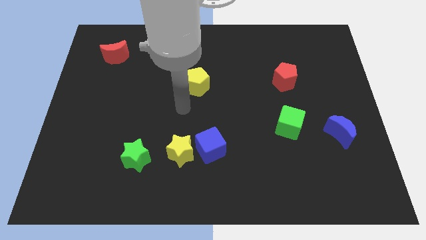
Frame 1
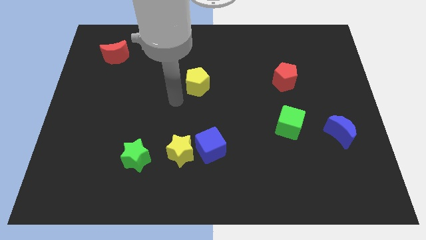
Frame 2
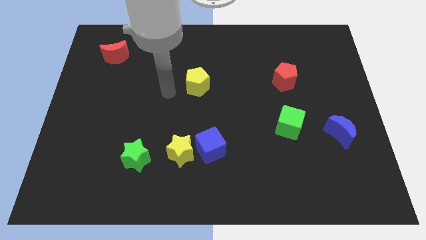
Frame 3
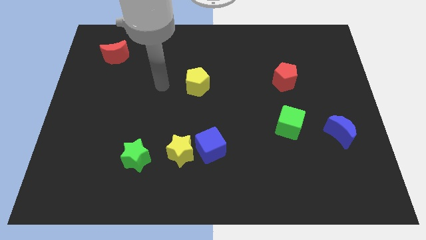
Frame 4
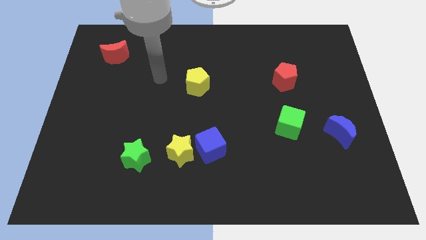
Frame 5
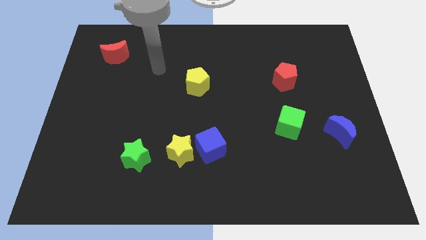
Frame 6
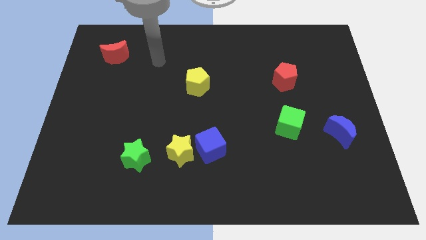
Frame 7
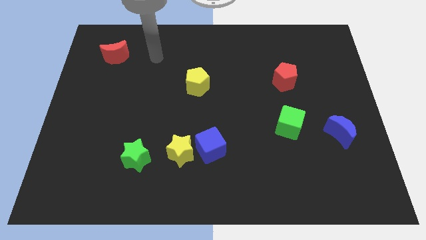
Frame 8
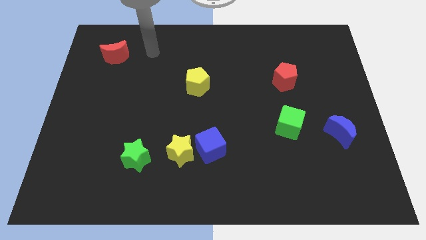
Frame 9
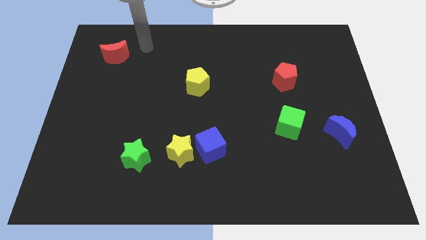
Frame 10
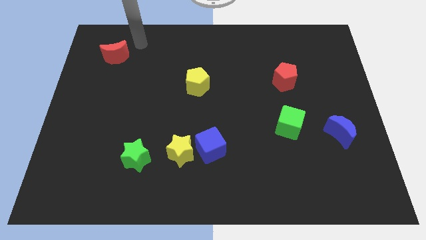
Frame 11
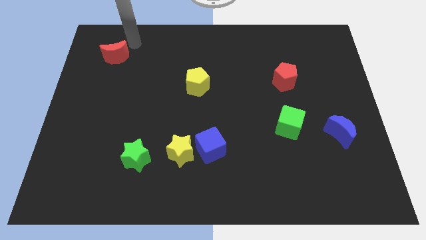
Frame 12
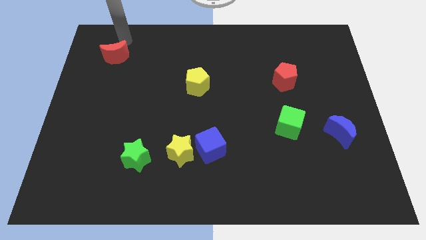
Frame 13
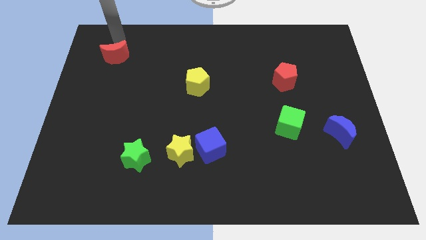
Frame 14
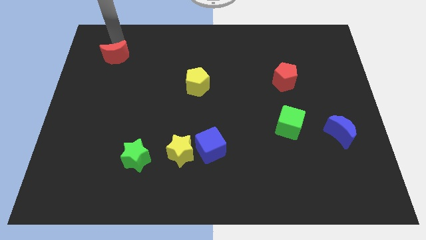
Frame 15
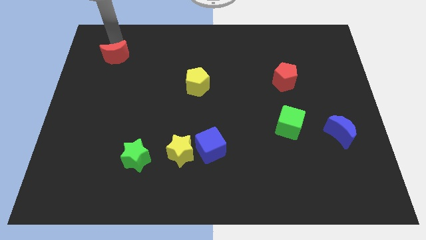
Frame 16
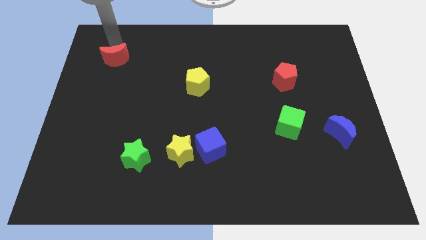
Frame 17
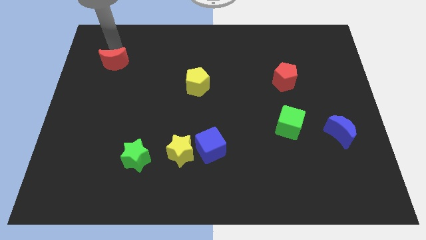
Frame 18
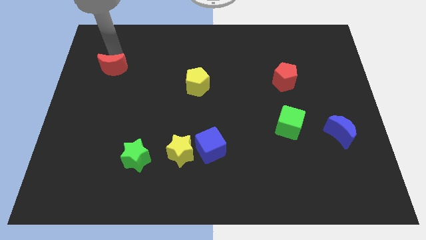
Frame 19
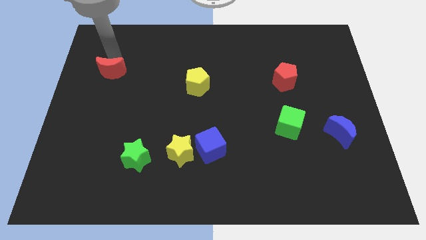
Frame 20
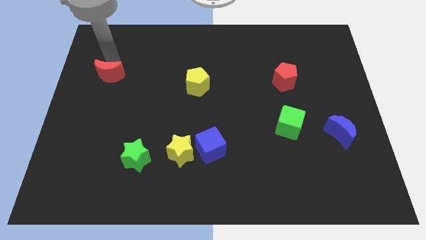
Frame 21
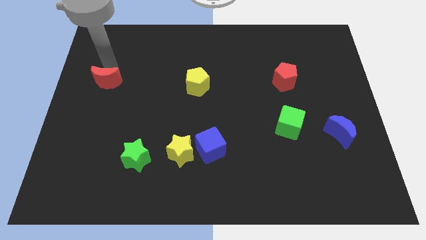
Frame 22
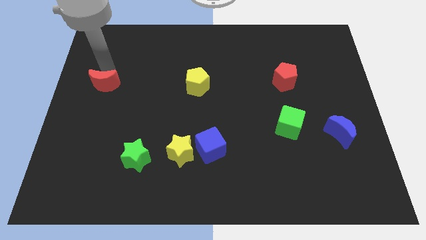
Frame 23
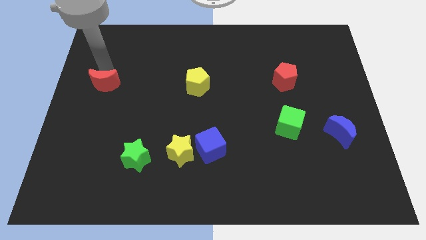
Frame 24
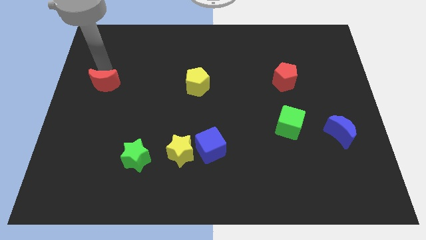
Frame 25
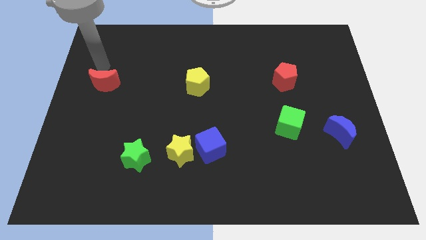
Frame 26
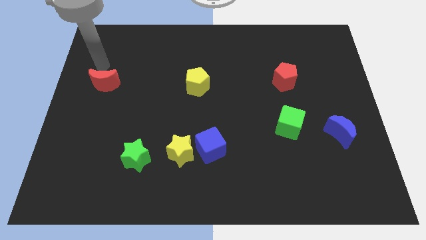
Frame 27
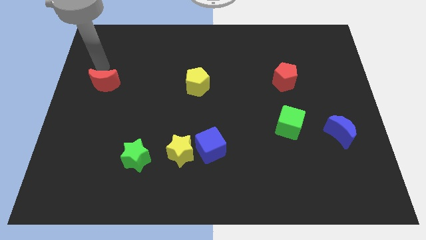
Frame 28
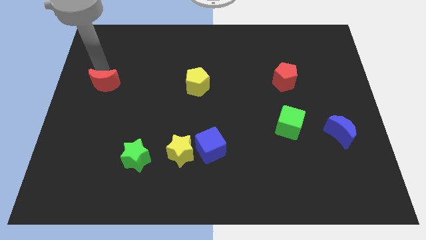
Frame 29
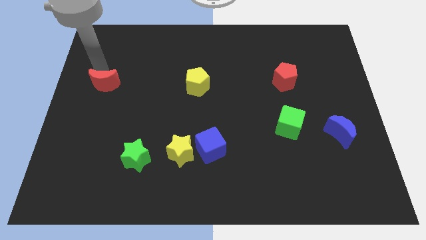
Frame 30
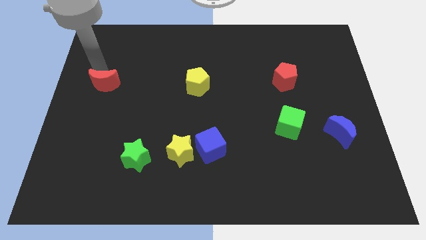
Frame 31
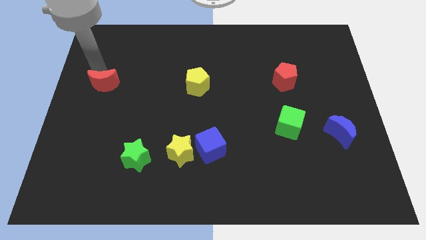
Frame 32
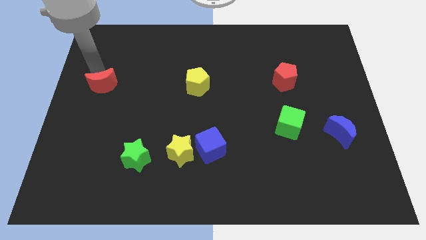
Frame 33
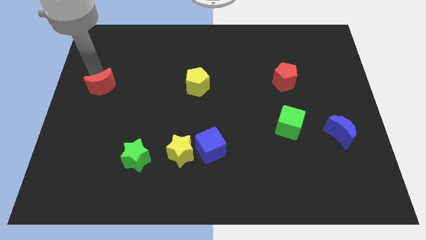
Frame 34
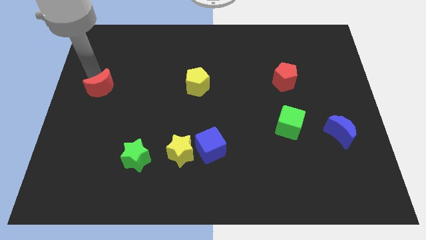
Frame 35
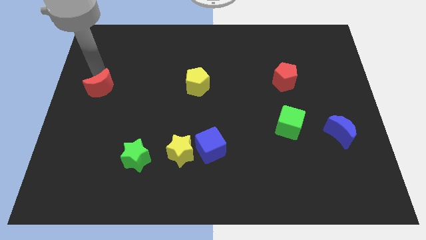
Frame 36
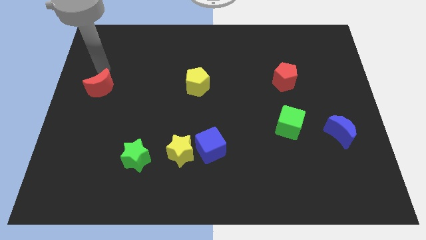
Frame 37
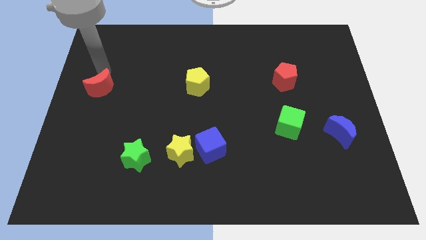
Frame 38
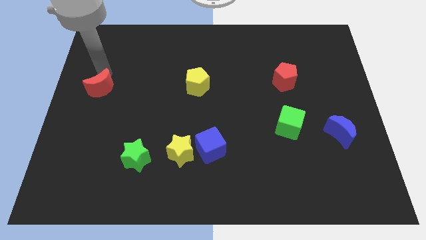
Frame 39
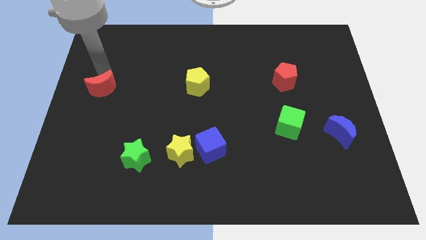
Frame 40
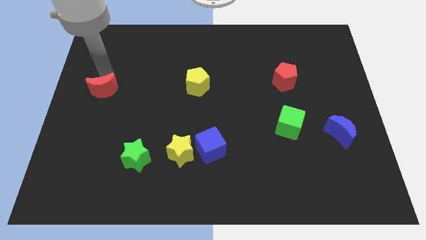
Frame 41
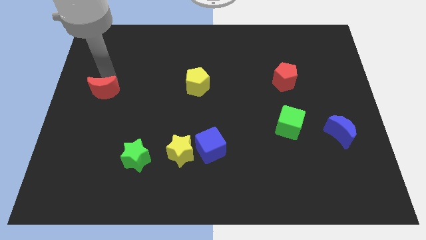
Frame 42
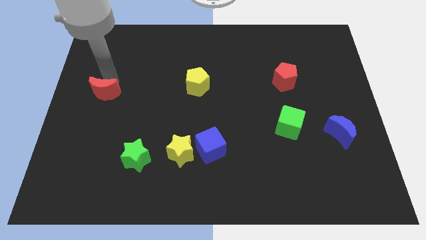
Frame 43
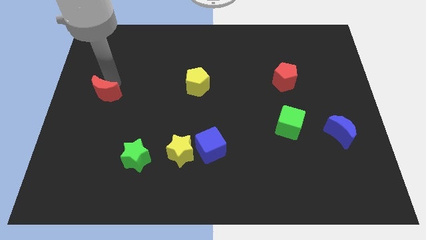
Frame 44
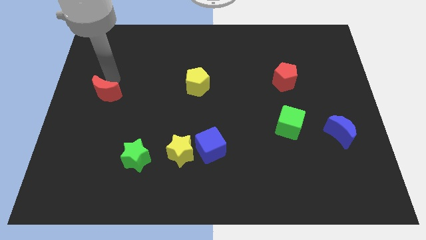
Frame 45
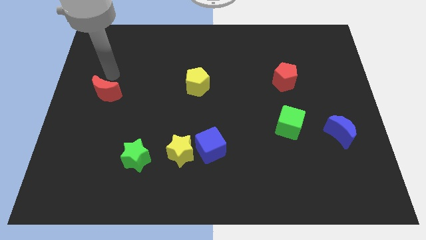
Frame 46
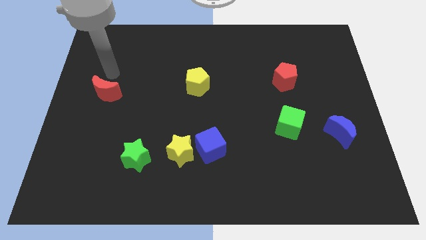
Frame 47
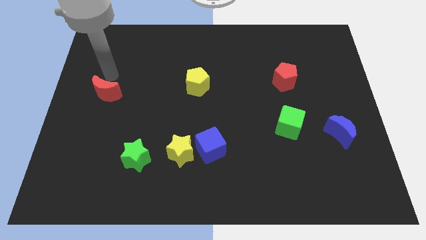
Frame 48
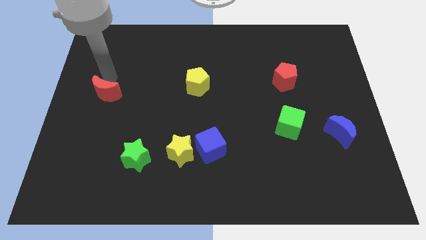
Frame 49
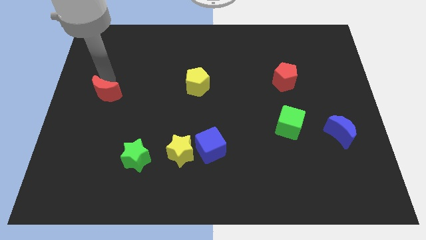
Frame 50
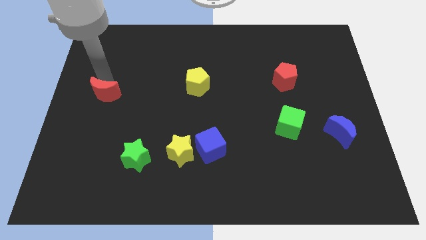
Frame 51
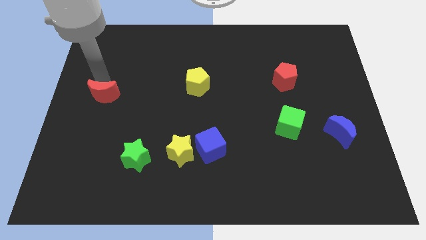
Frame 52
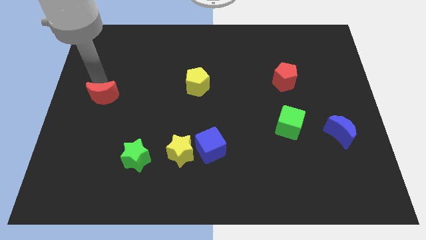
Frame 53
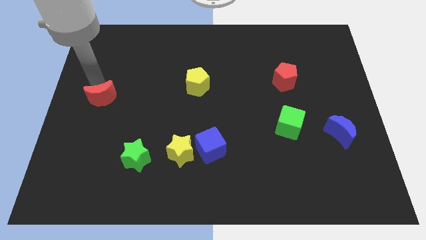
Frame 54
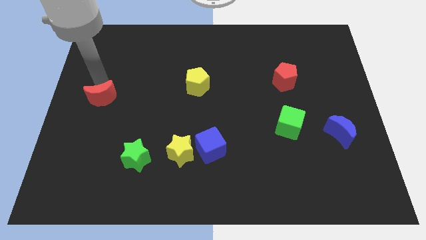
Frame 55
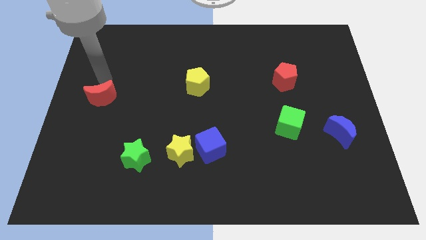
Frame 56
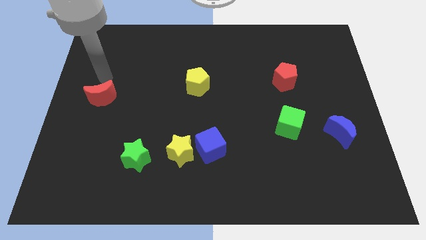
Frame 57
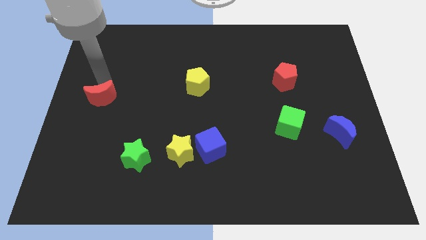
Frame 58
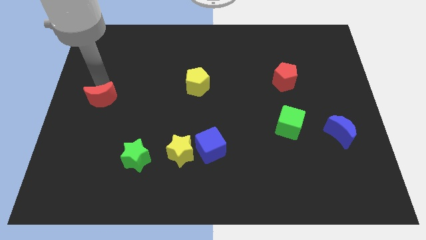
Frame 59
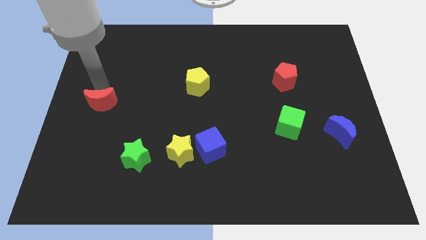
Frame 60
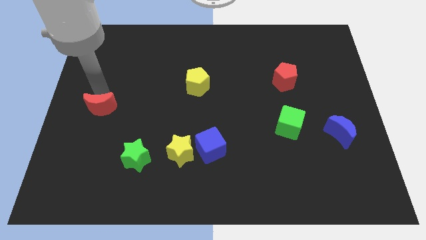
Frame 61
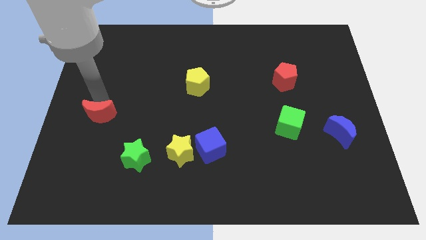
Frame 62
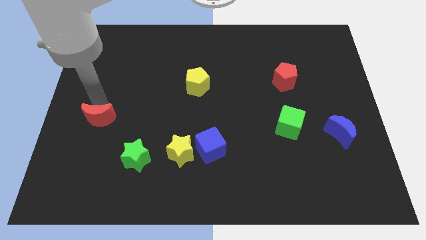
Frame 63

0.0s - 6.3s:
move the red moon down

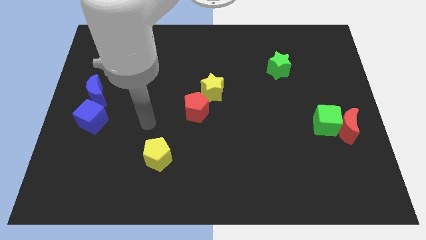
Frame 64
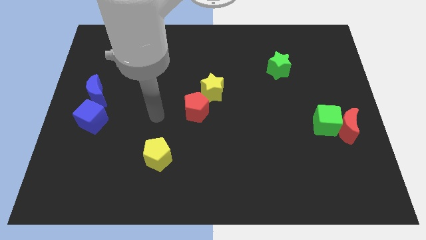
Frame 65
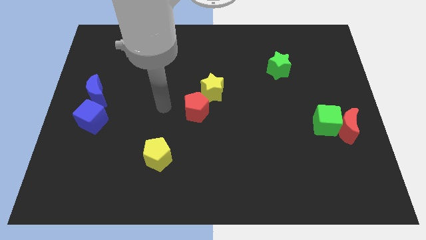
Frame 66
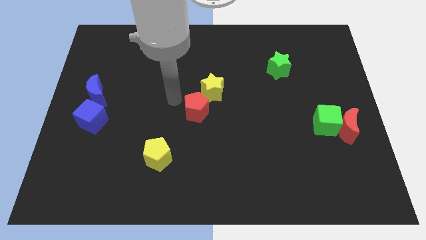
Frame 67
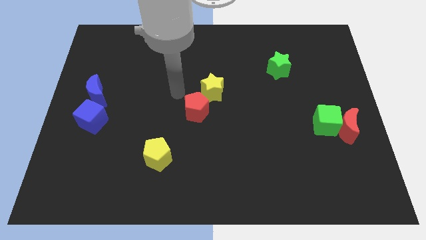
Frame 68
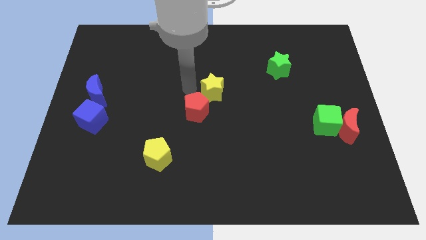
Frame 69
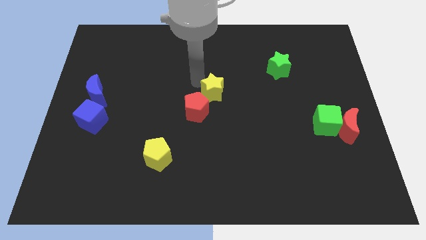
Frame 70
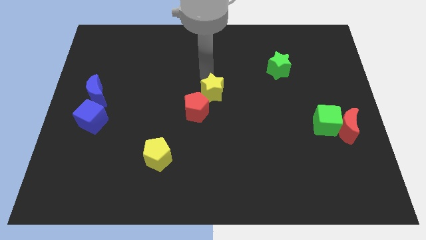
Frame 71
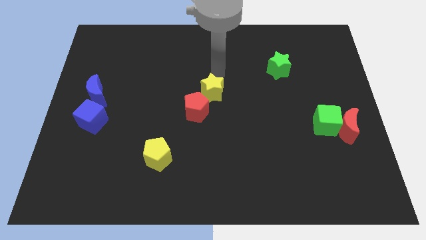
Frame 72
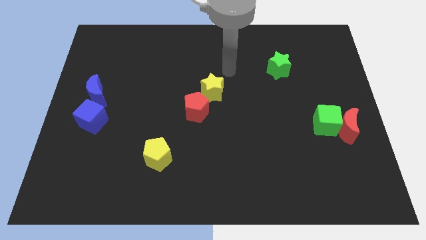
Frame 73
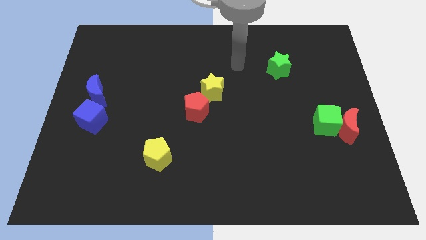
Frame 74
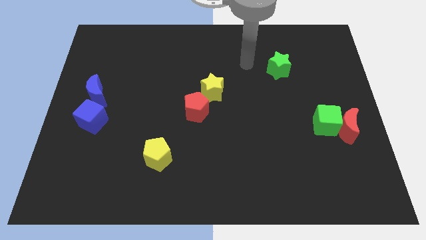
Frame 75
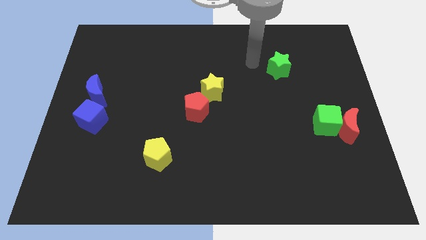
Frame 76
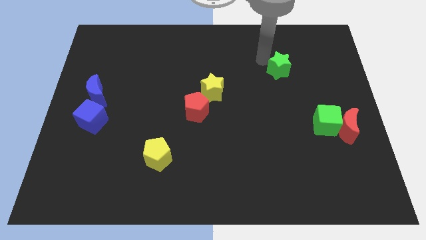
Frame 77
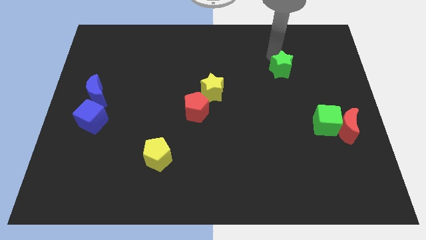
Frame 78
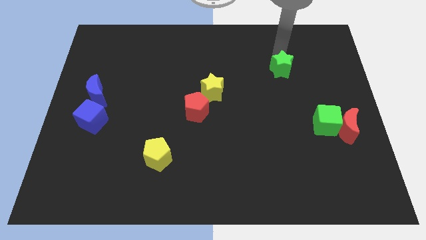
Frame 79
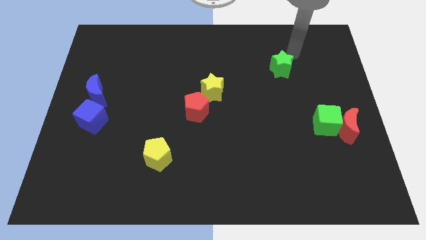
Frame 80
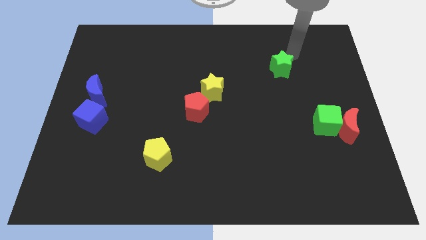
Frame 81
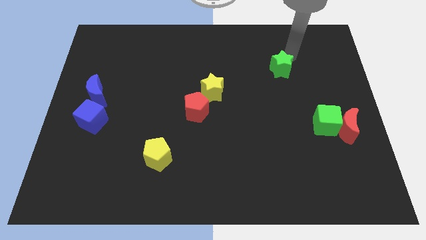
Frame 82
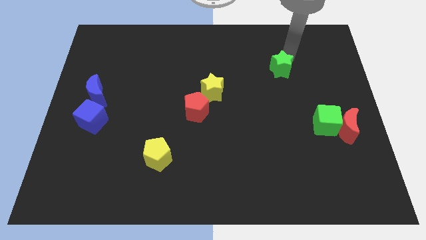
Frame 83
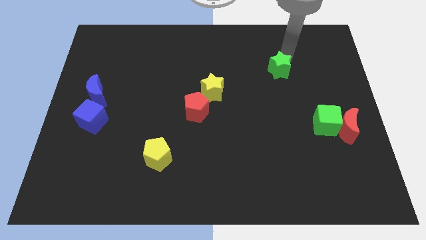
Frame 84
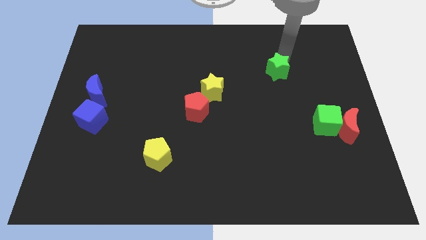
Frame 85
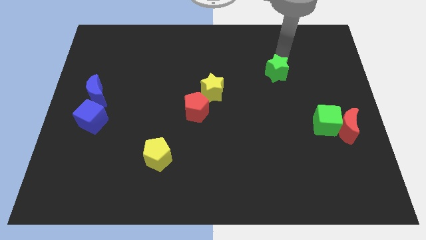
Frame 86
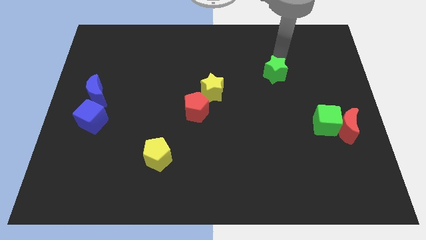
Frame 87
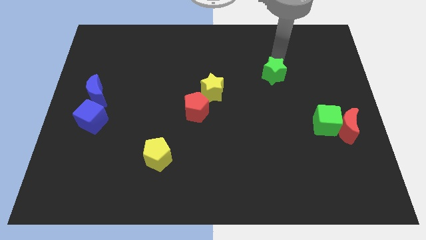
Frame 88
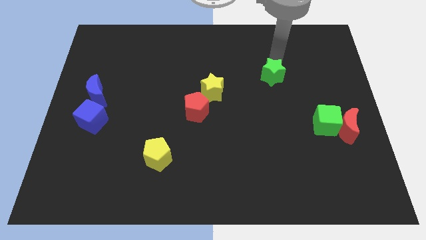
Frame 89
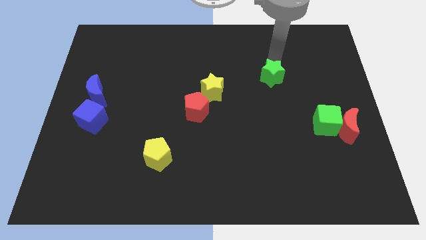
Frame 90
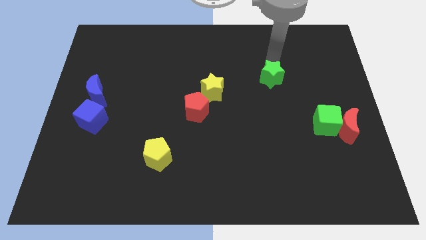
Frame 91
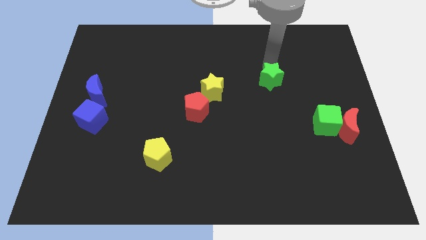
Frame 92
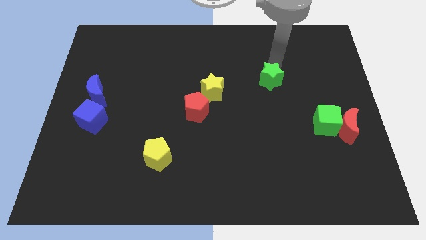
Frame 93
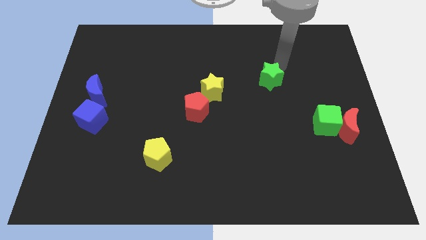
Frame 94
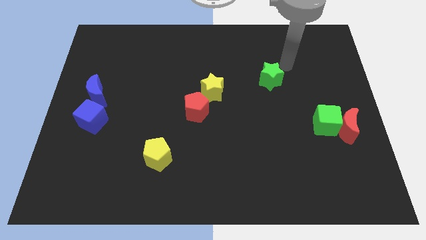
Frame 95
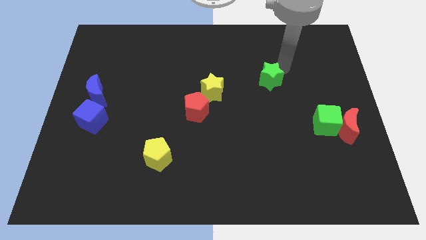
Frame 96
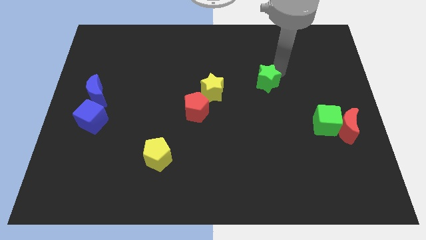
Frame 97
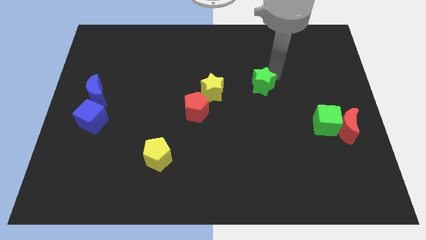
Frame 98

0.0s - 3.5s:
slide the green star downwards and to the left diagonally a little
